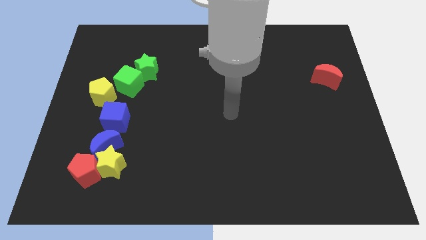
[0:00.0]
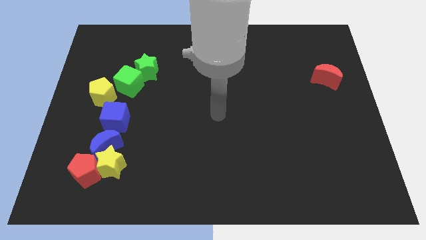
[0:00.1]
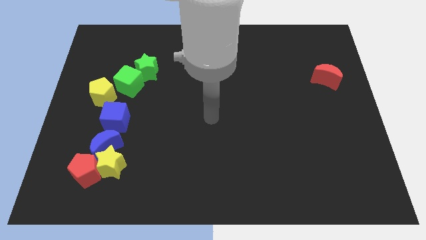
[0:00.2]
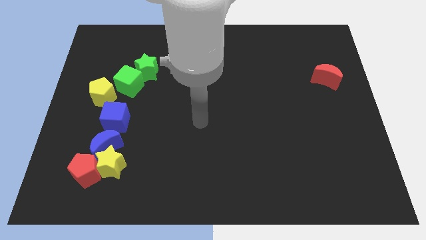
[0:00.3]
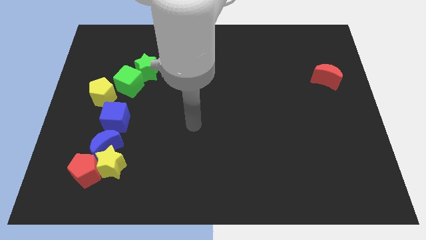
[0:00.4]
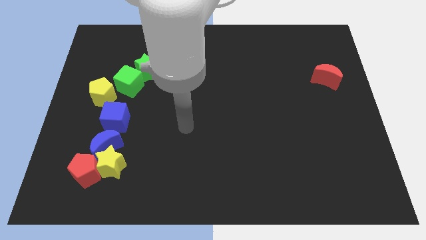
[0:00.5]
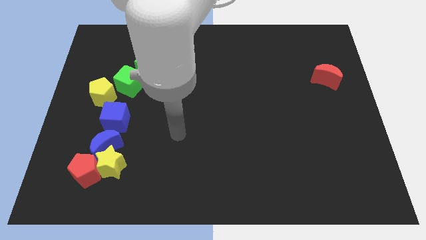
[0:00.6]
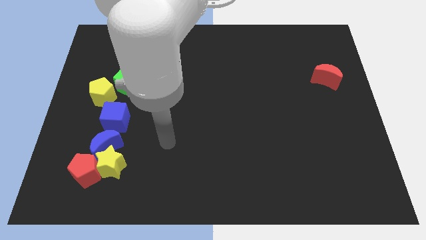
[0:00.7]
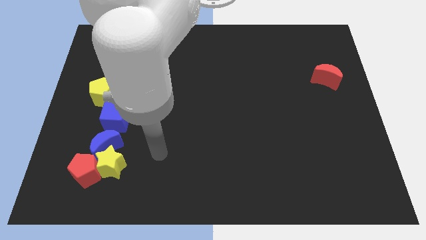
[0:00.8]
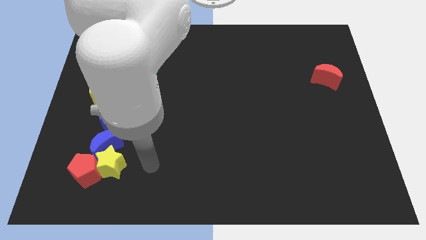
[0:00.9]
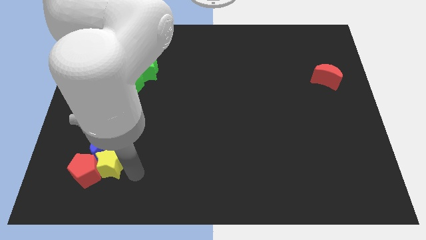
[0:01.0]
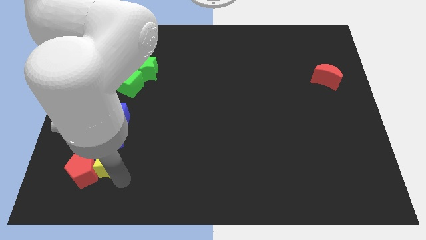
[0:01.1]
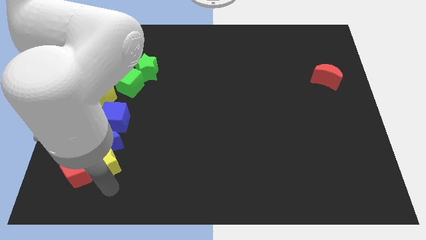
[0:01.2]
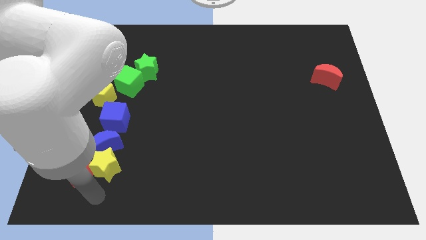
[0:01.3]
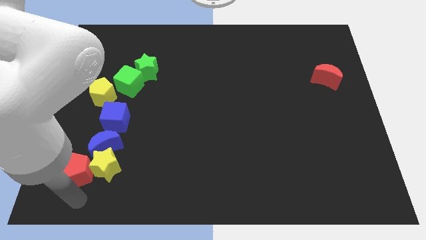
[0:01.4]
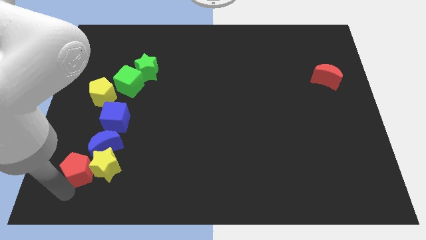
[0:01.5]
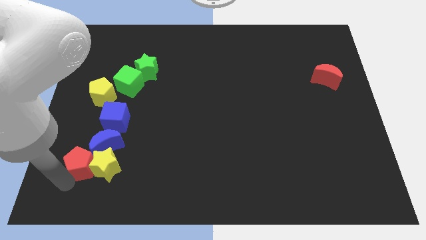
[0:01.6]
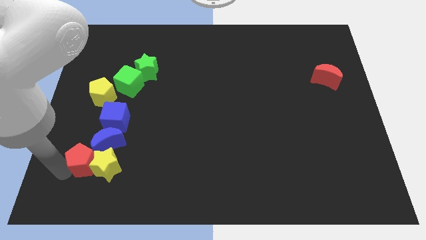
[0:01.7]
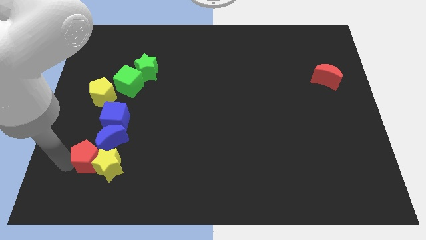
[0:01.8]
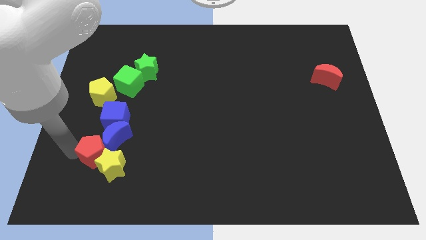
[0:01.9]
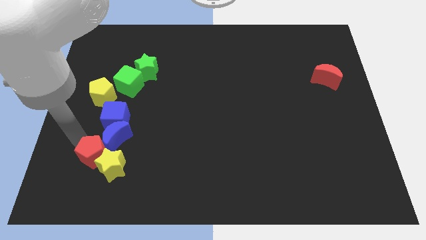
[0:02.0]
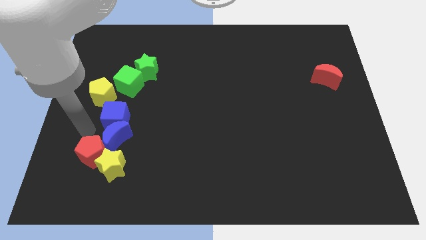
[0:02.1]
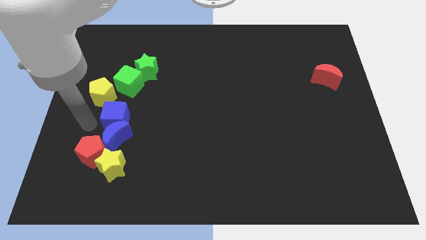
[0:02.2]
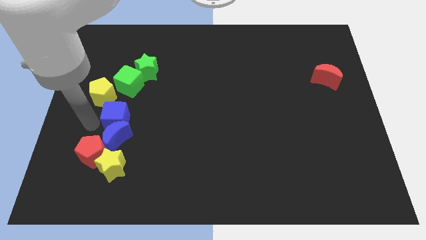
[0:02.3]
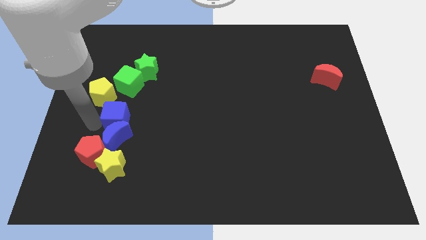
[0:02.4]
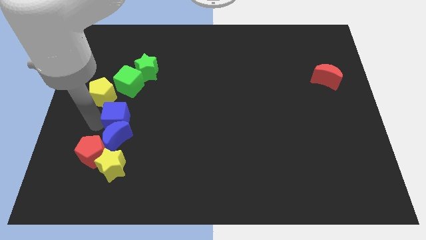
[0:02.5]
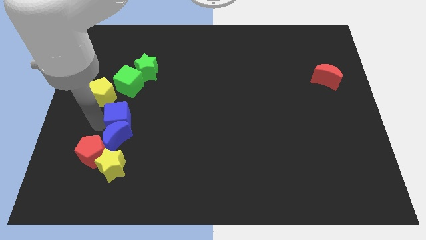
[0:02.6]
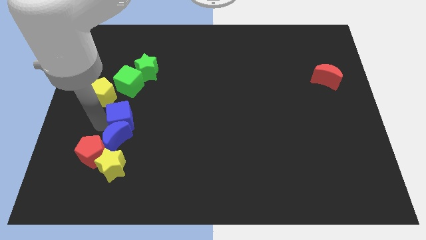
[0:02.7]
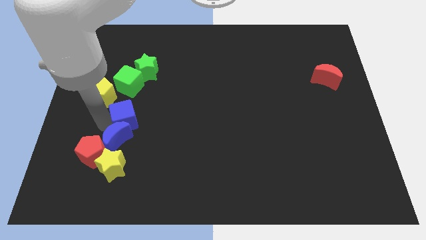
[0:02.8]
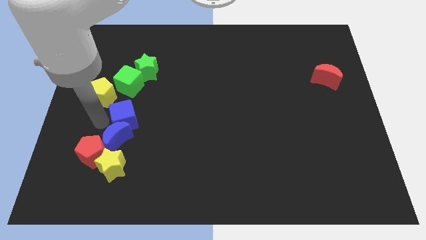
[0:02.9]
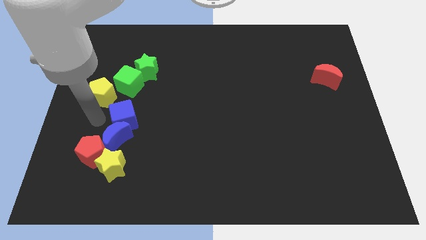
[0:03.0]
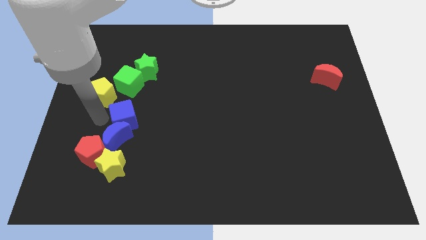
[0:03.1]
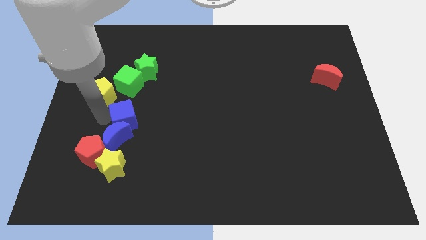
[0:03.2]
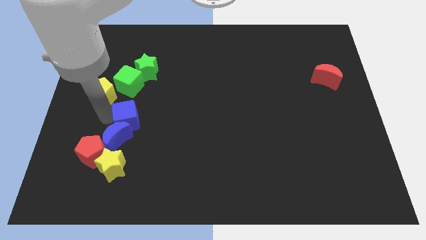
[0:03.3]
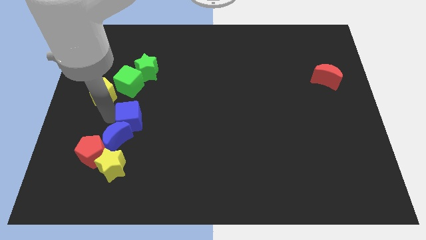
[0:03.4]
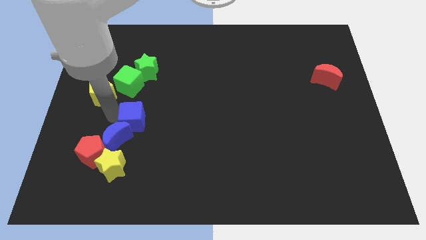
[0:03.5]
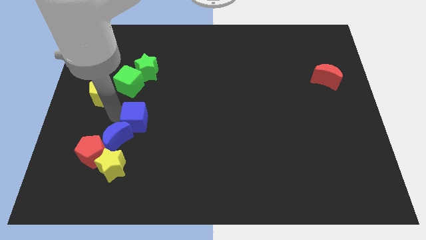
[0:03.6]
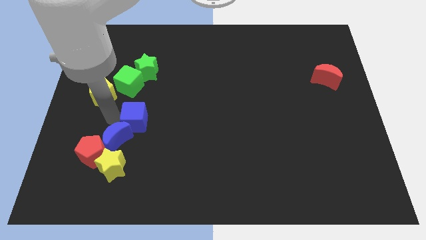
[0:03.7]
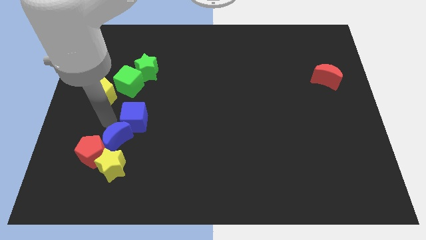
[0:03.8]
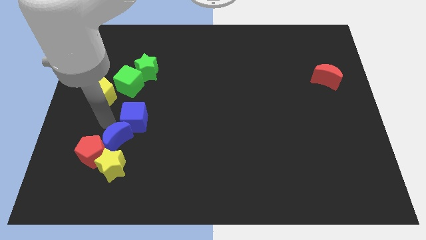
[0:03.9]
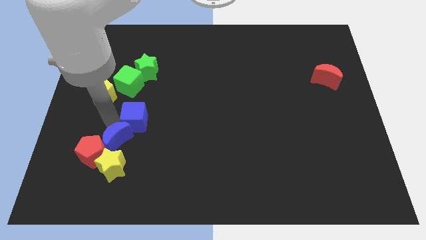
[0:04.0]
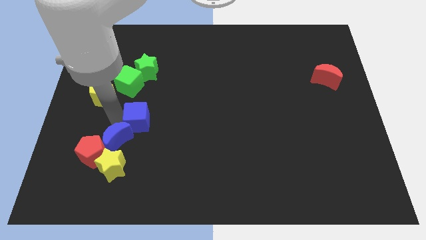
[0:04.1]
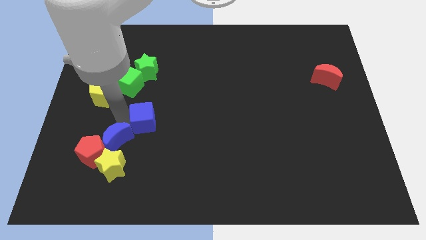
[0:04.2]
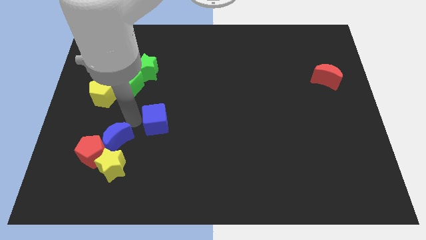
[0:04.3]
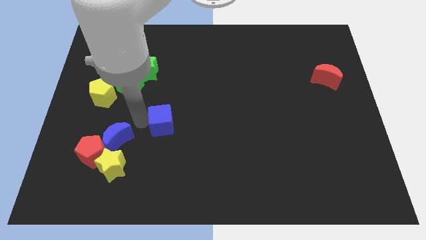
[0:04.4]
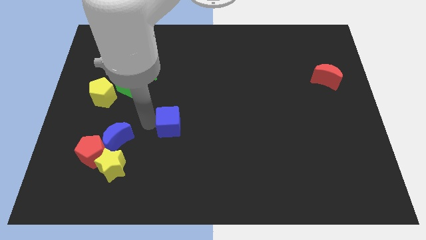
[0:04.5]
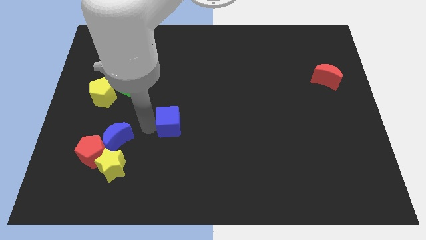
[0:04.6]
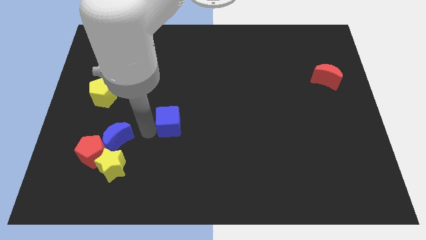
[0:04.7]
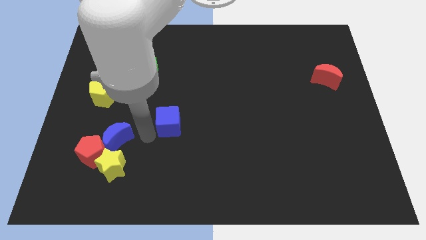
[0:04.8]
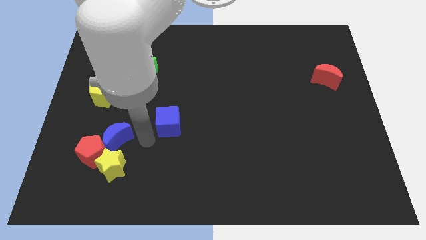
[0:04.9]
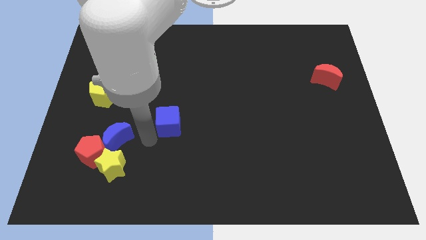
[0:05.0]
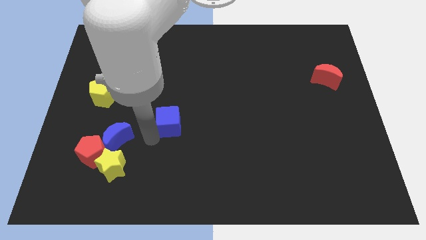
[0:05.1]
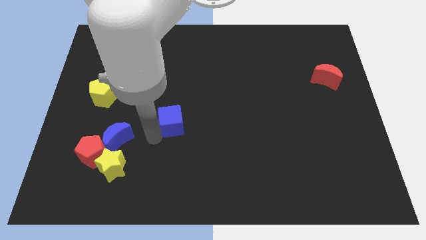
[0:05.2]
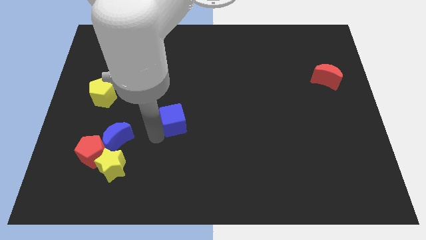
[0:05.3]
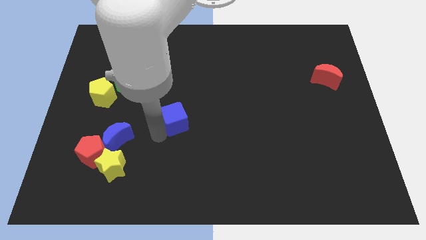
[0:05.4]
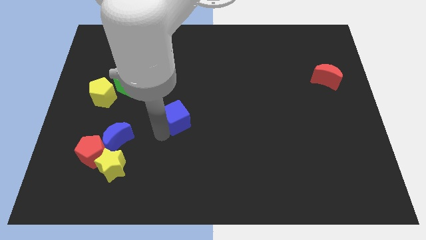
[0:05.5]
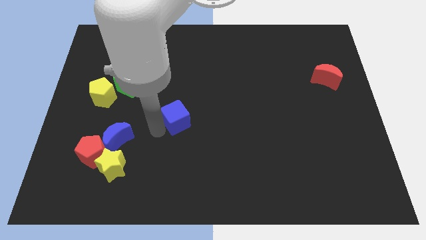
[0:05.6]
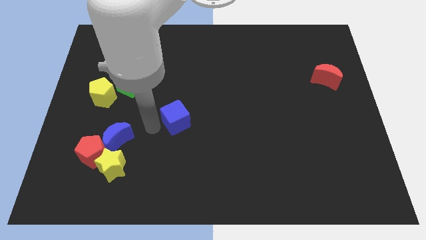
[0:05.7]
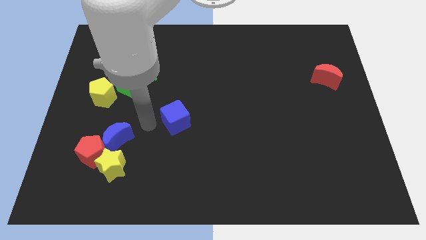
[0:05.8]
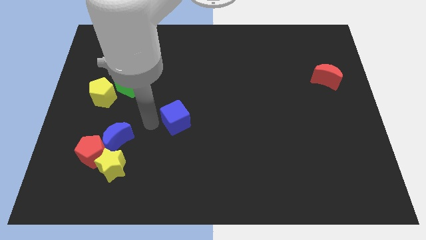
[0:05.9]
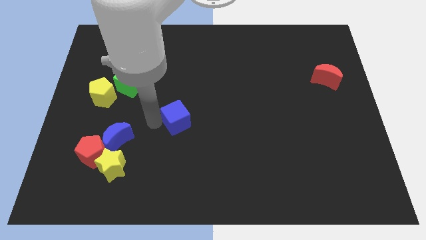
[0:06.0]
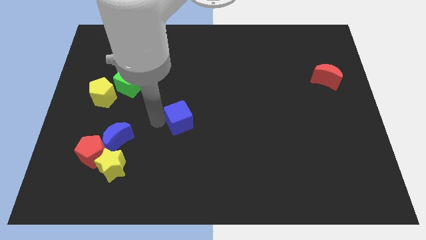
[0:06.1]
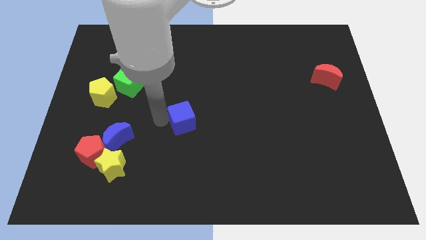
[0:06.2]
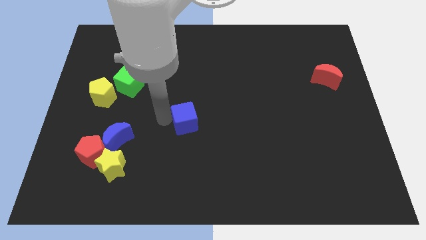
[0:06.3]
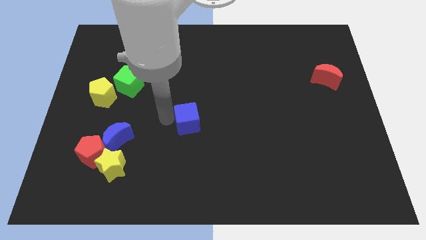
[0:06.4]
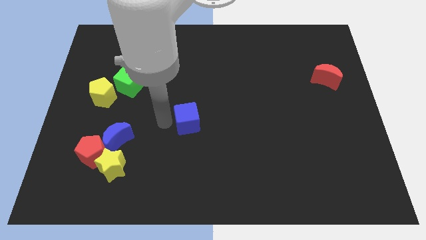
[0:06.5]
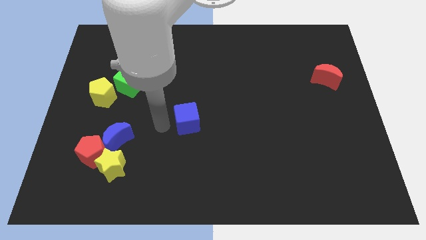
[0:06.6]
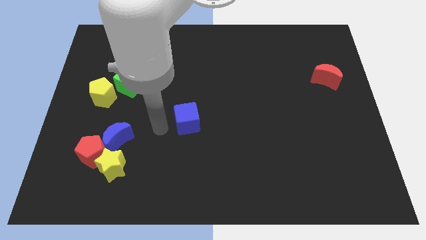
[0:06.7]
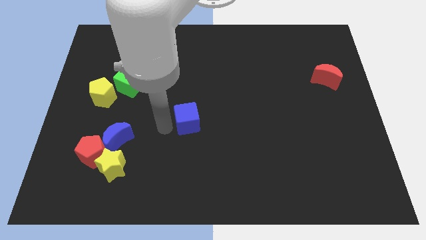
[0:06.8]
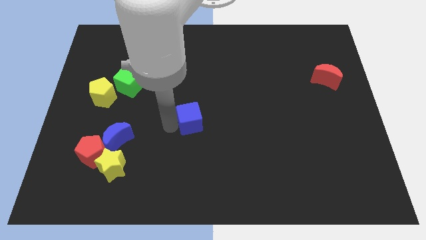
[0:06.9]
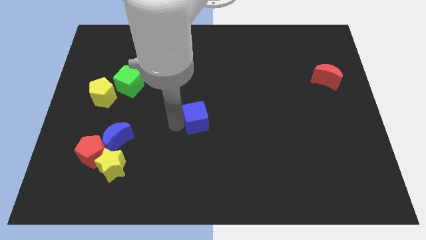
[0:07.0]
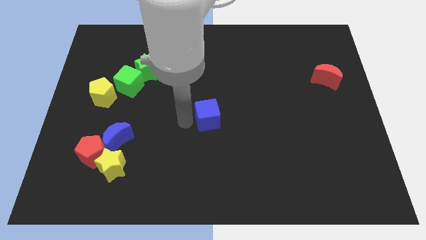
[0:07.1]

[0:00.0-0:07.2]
move the blue cube right

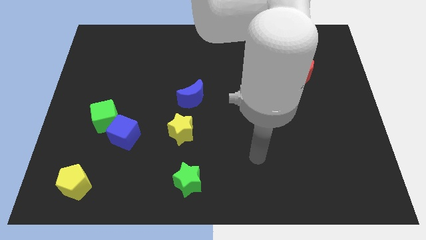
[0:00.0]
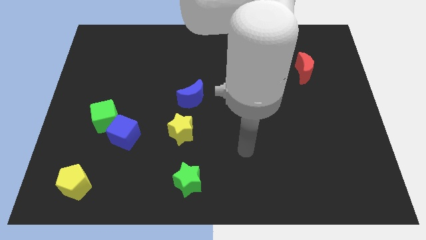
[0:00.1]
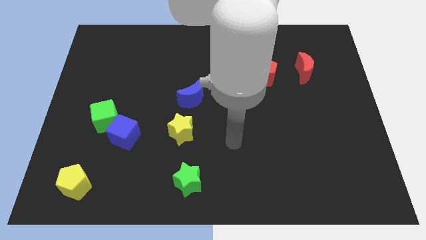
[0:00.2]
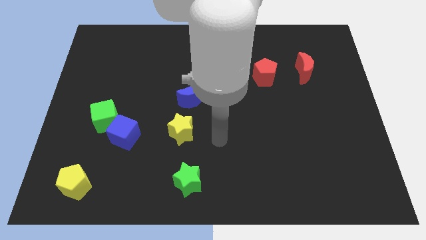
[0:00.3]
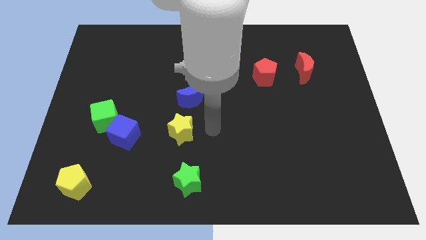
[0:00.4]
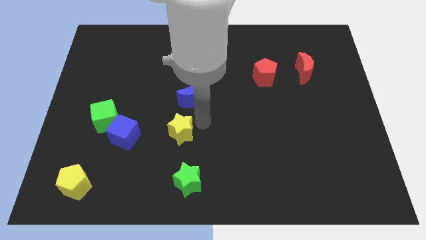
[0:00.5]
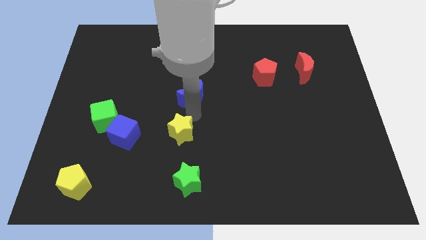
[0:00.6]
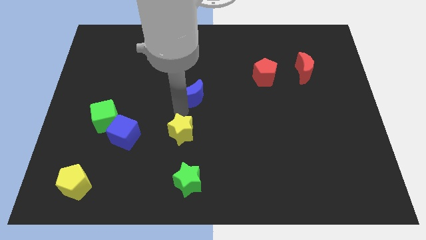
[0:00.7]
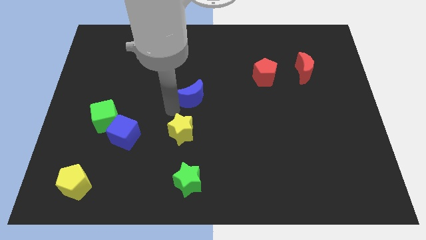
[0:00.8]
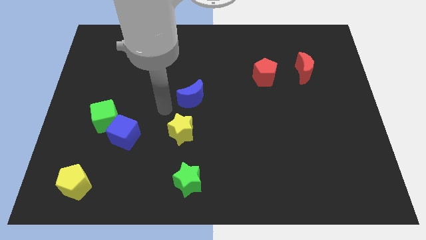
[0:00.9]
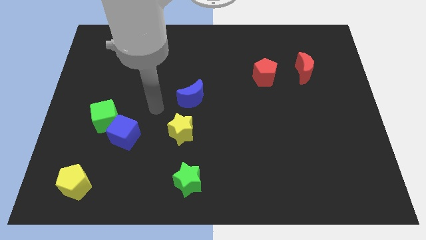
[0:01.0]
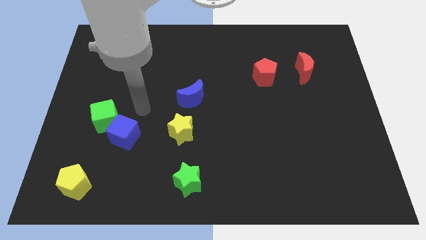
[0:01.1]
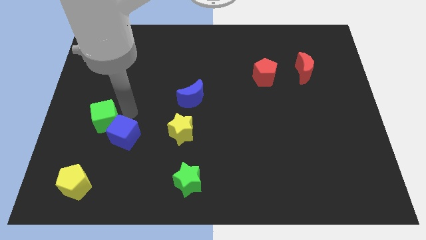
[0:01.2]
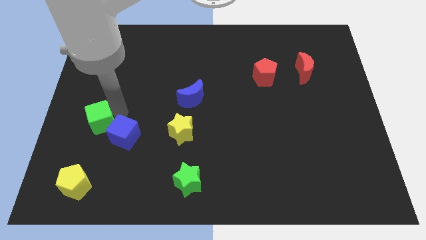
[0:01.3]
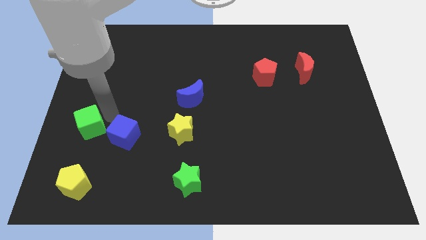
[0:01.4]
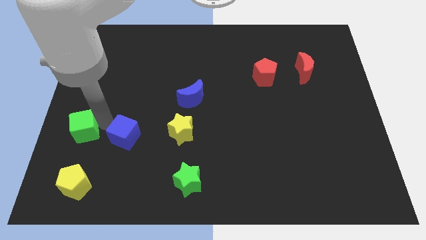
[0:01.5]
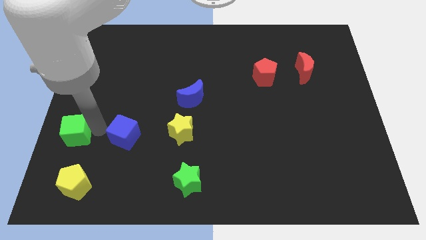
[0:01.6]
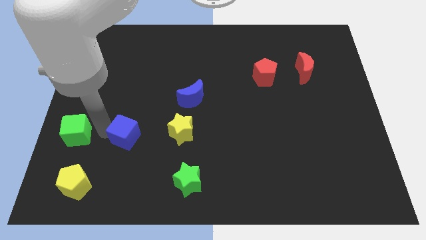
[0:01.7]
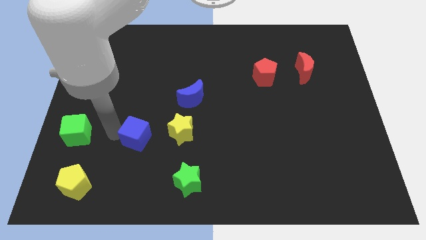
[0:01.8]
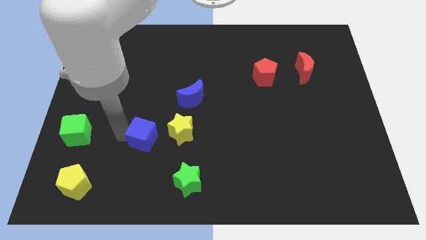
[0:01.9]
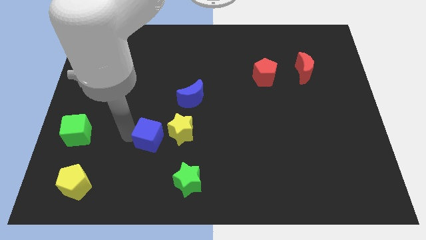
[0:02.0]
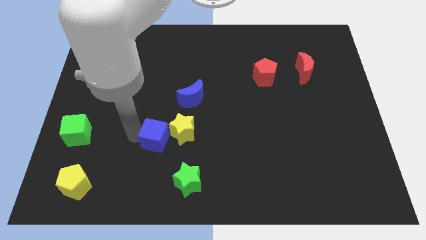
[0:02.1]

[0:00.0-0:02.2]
push the blue cube to the right somewhat
